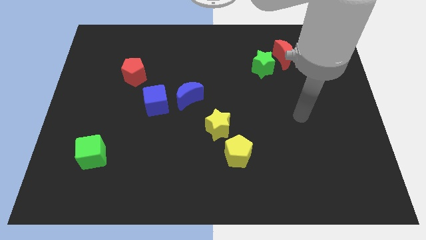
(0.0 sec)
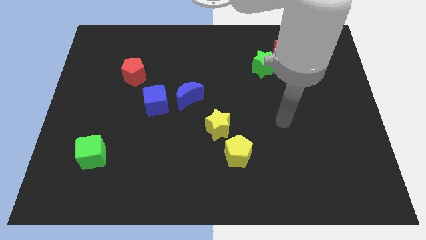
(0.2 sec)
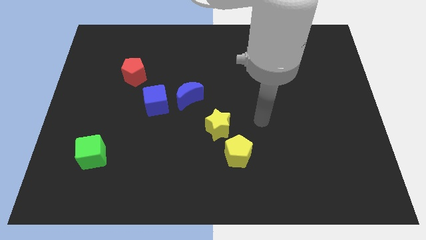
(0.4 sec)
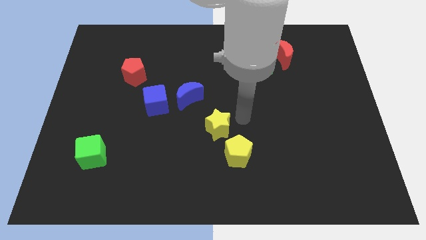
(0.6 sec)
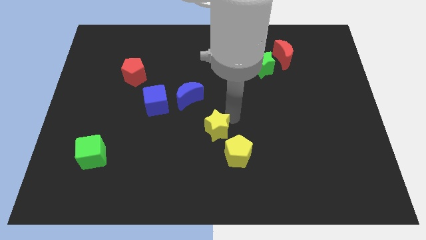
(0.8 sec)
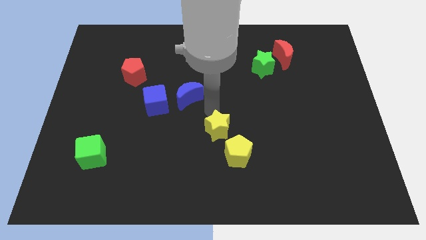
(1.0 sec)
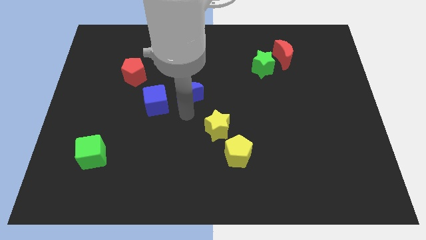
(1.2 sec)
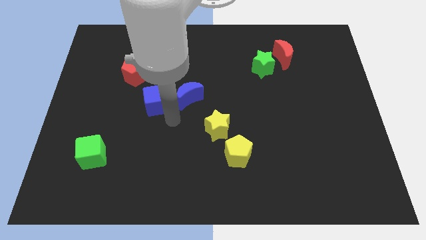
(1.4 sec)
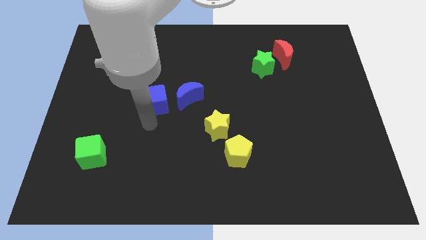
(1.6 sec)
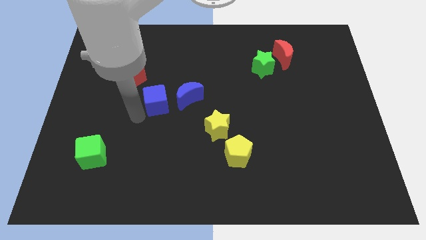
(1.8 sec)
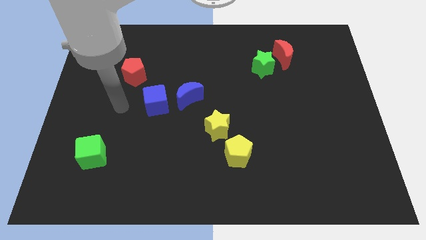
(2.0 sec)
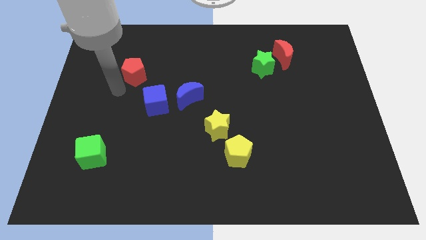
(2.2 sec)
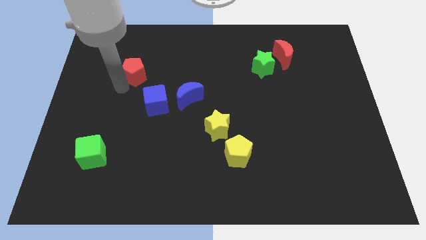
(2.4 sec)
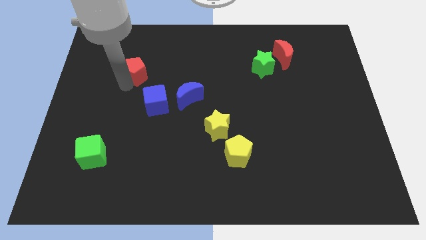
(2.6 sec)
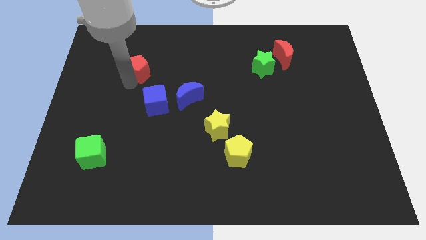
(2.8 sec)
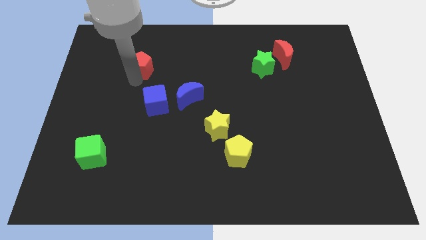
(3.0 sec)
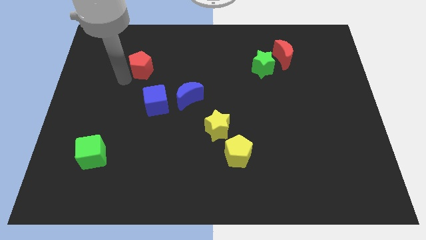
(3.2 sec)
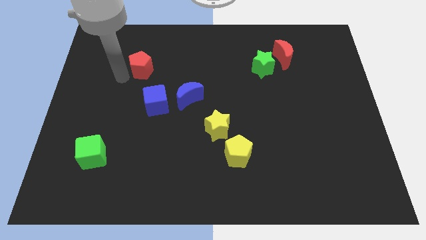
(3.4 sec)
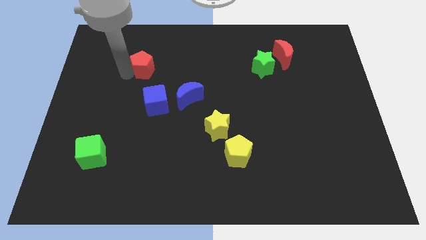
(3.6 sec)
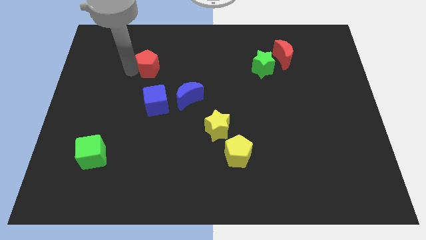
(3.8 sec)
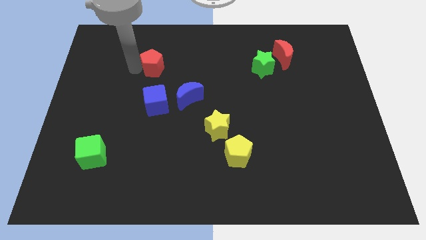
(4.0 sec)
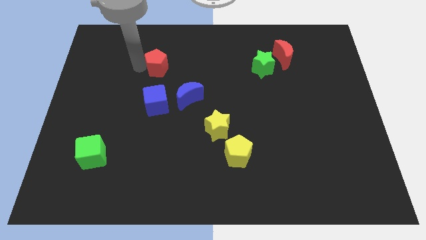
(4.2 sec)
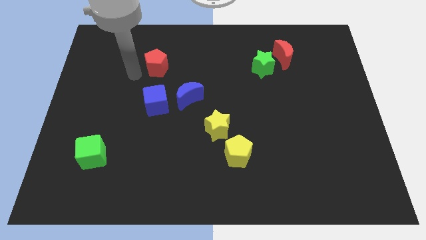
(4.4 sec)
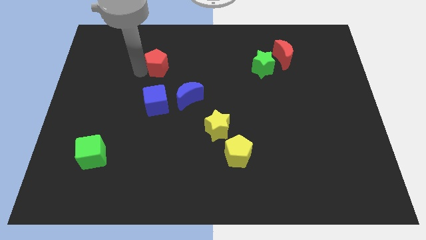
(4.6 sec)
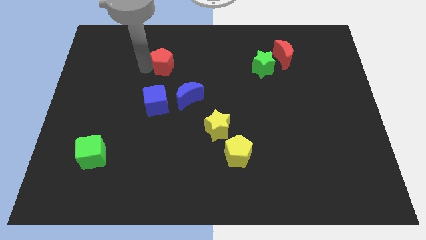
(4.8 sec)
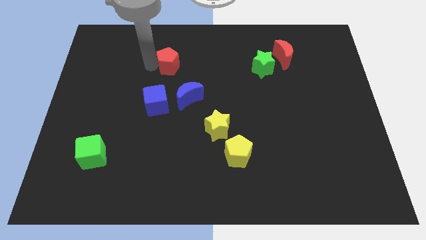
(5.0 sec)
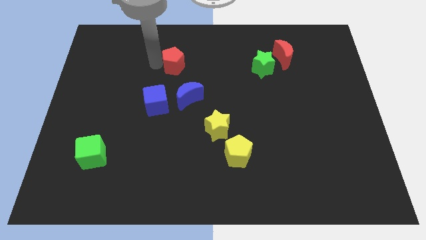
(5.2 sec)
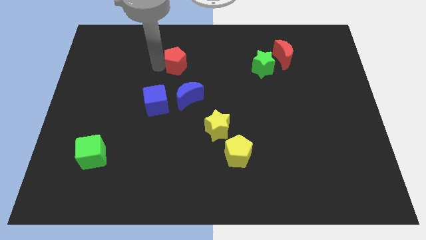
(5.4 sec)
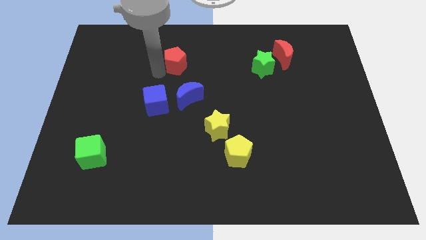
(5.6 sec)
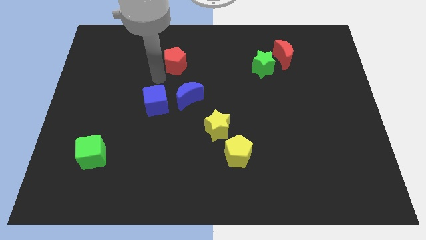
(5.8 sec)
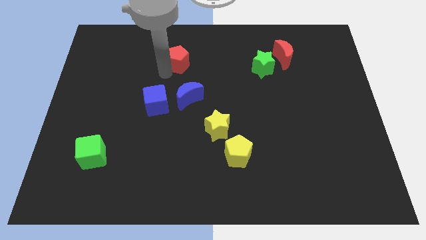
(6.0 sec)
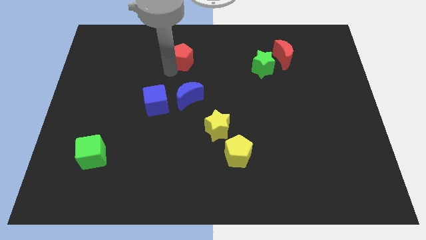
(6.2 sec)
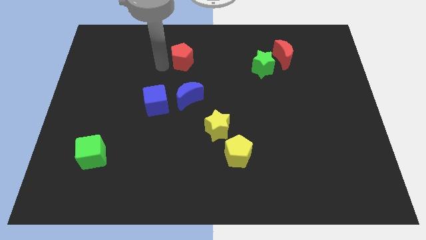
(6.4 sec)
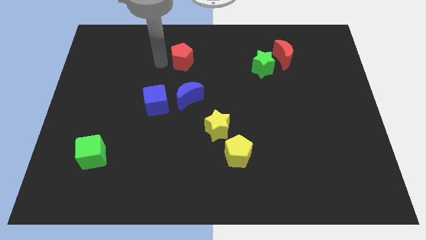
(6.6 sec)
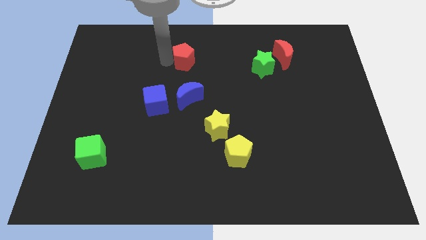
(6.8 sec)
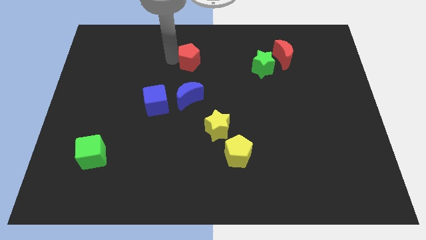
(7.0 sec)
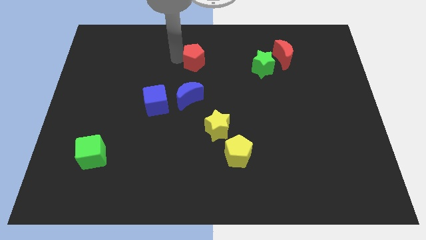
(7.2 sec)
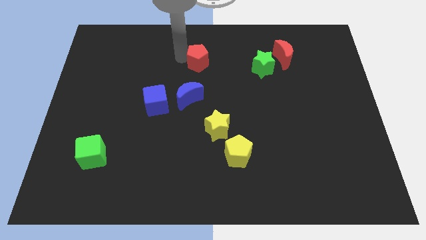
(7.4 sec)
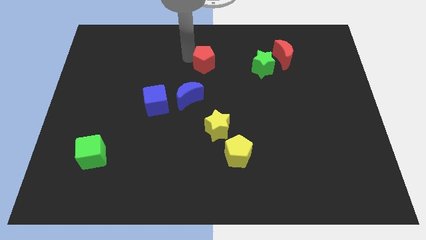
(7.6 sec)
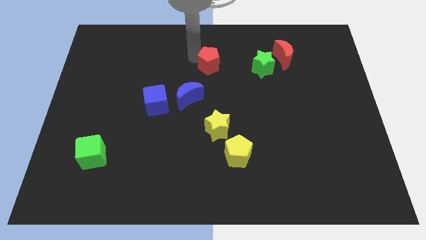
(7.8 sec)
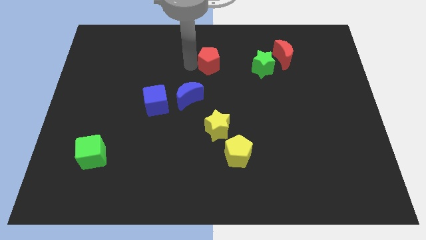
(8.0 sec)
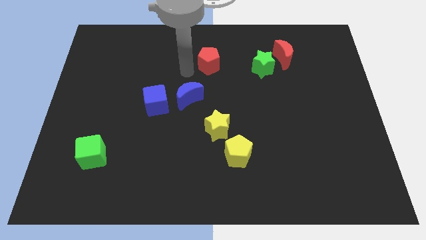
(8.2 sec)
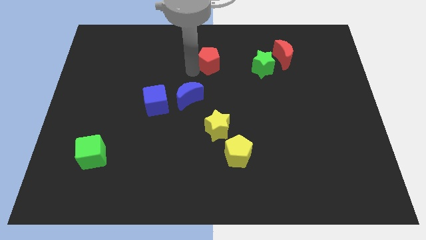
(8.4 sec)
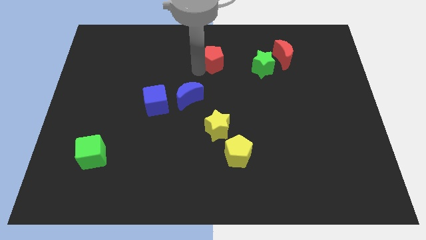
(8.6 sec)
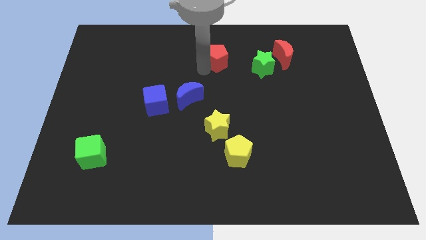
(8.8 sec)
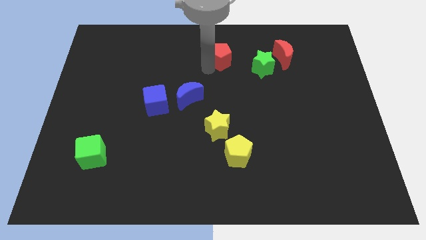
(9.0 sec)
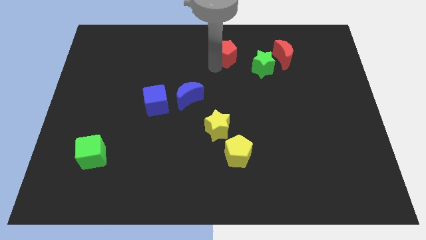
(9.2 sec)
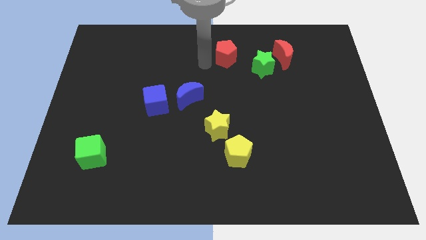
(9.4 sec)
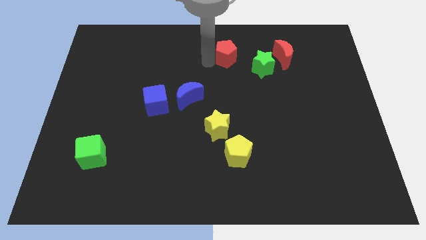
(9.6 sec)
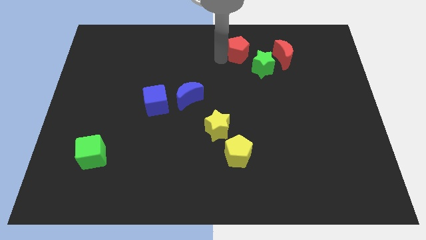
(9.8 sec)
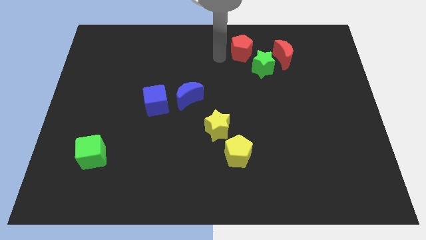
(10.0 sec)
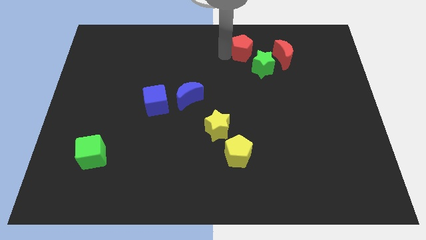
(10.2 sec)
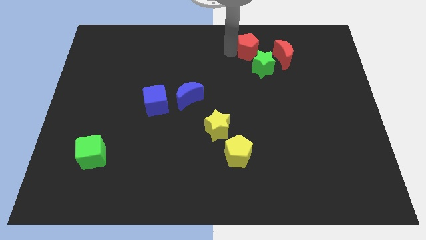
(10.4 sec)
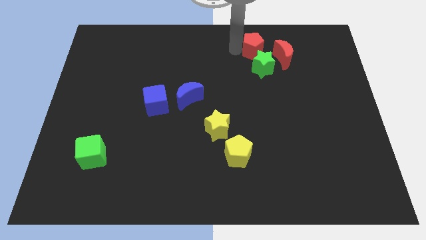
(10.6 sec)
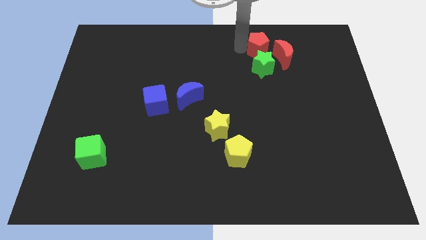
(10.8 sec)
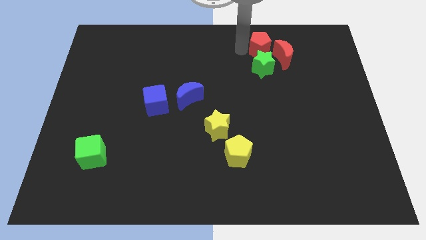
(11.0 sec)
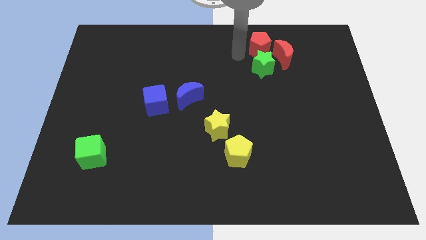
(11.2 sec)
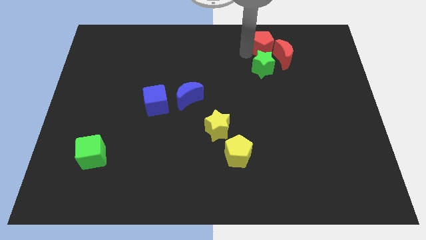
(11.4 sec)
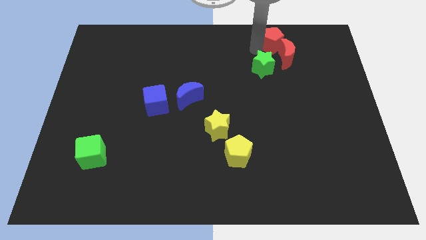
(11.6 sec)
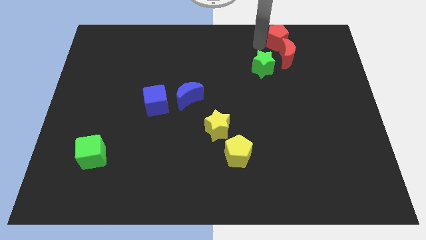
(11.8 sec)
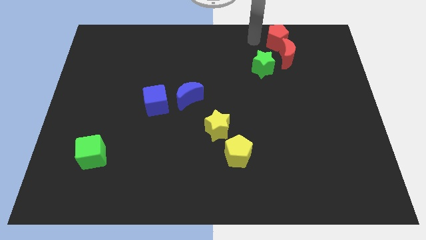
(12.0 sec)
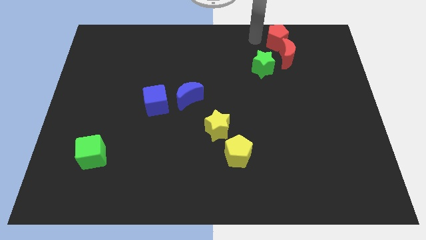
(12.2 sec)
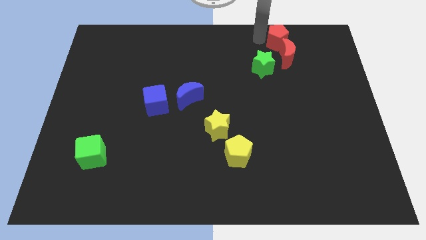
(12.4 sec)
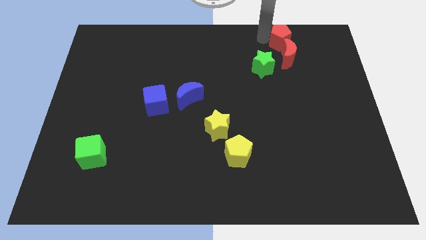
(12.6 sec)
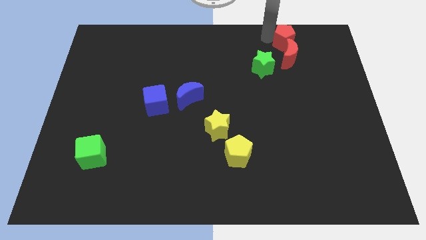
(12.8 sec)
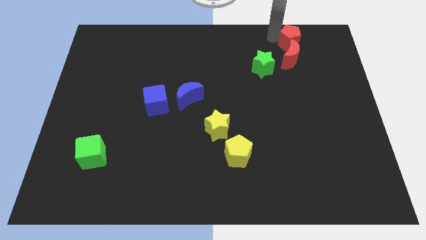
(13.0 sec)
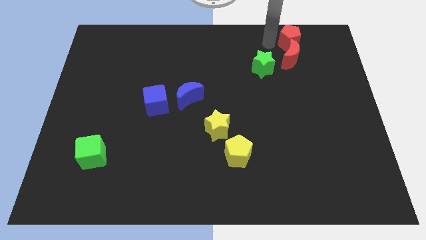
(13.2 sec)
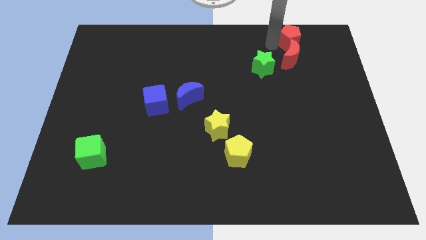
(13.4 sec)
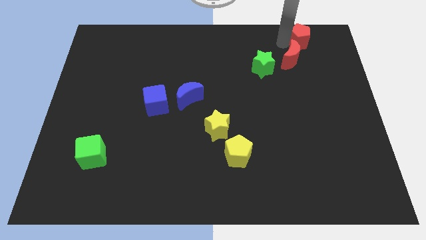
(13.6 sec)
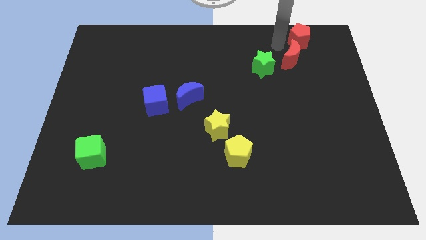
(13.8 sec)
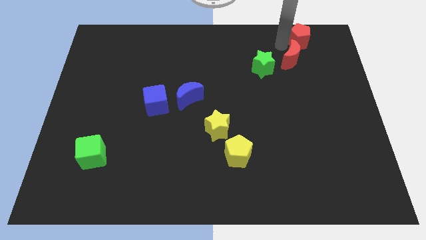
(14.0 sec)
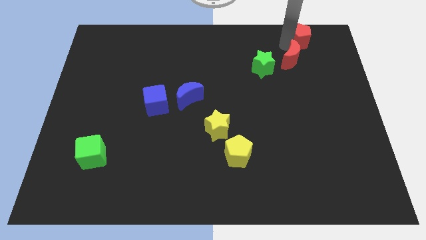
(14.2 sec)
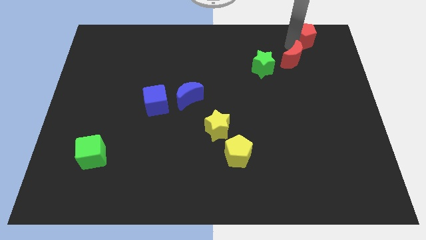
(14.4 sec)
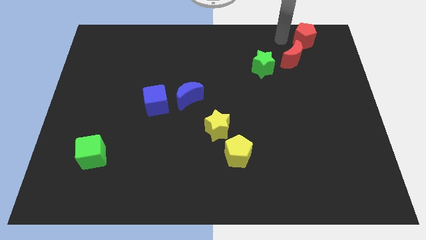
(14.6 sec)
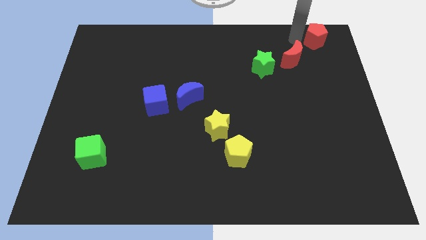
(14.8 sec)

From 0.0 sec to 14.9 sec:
move the red pentagon to the upper right corner

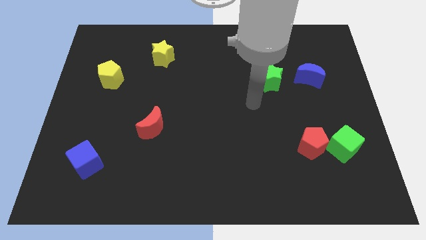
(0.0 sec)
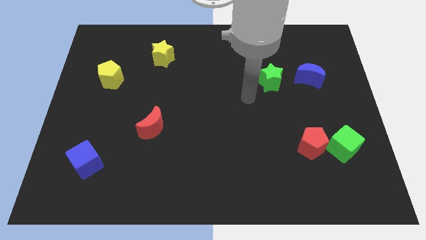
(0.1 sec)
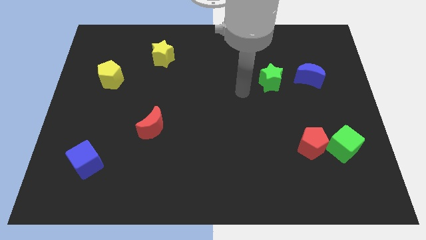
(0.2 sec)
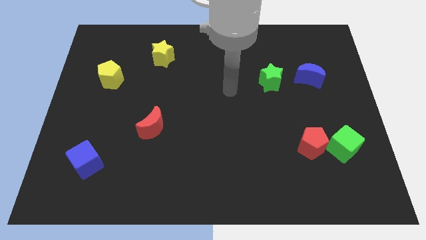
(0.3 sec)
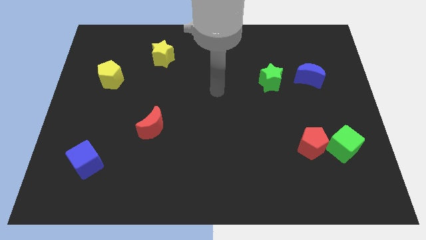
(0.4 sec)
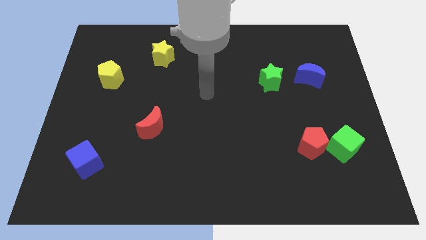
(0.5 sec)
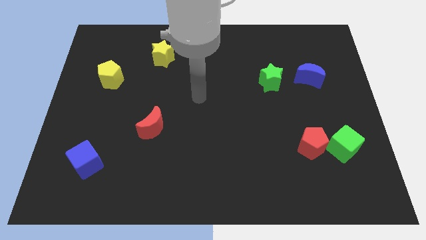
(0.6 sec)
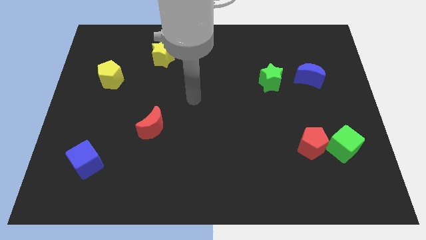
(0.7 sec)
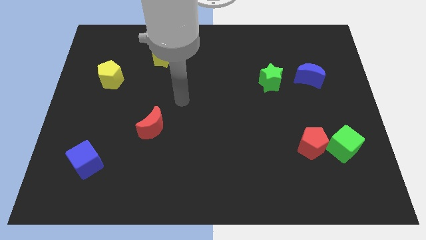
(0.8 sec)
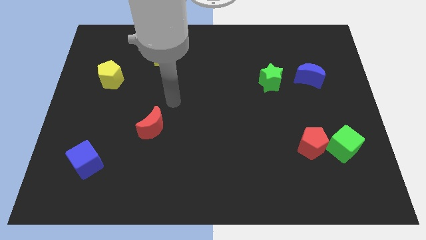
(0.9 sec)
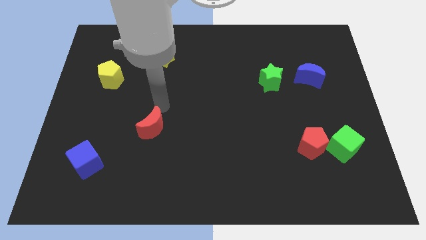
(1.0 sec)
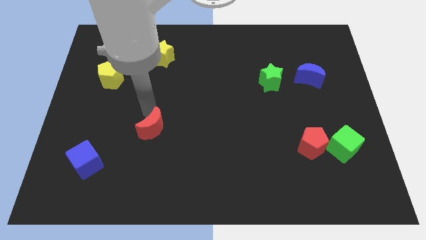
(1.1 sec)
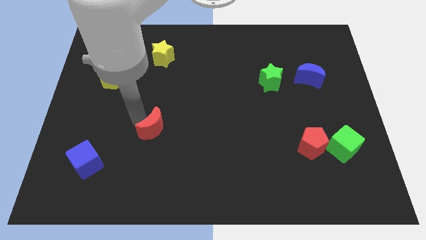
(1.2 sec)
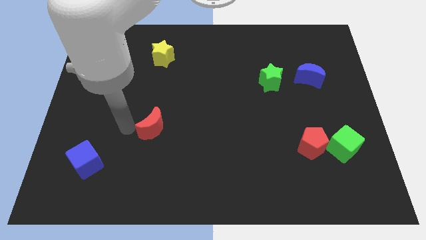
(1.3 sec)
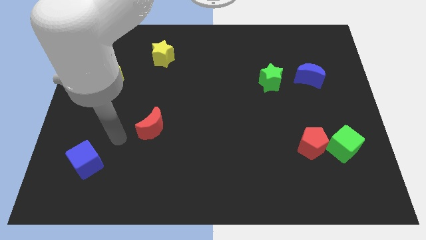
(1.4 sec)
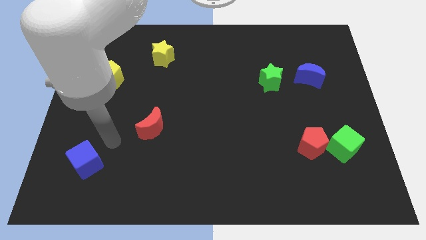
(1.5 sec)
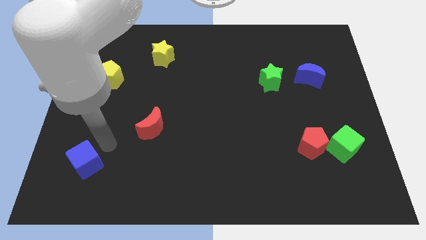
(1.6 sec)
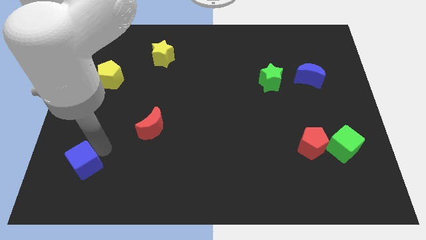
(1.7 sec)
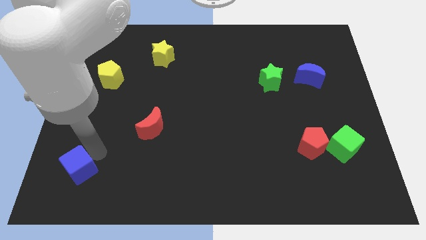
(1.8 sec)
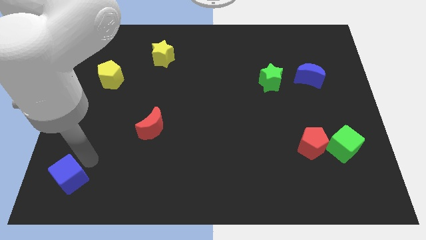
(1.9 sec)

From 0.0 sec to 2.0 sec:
push the blue cube to the bottom left
